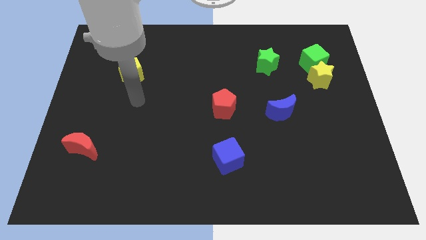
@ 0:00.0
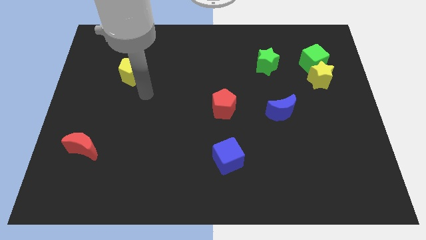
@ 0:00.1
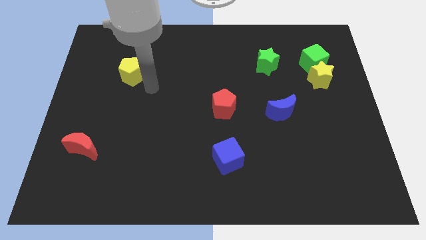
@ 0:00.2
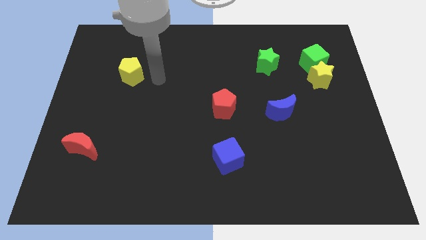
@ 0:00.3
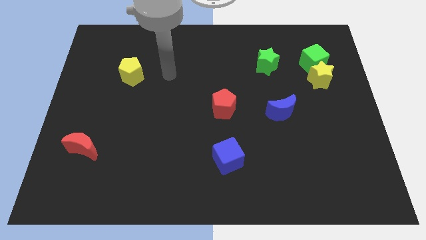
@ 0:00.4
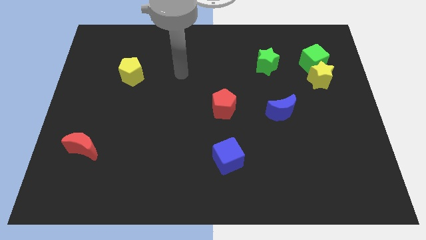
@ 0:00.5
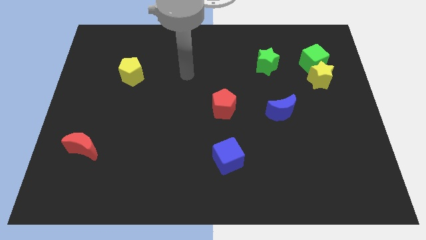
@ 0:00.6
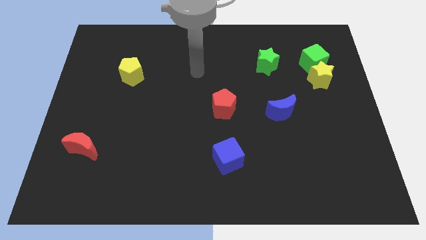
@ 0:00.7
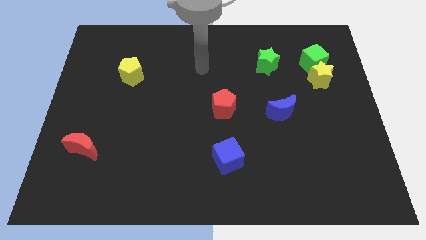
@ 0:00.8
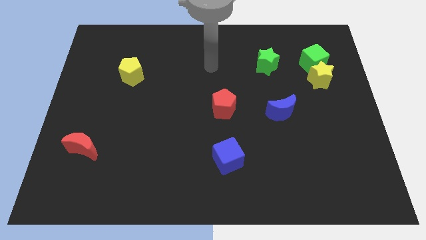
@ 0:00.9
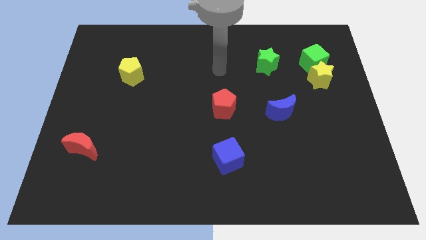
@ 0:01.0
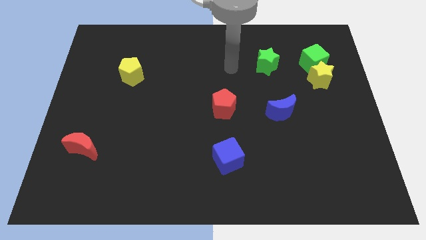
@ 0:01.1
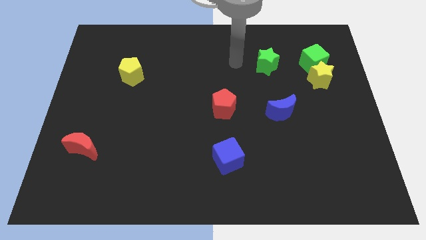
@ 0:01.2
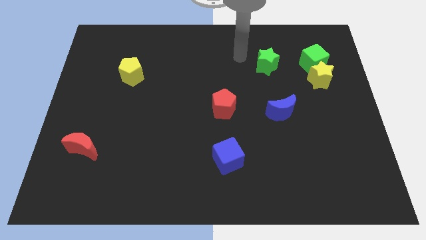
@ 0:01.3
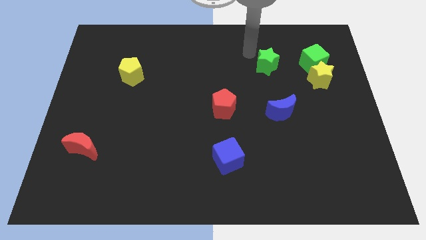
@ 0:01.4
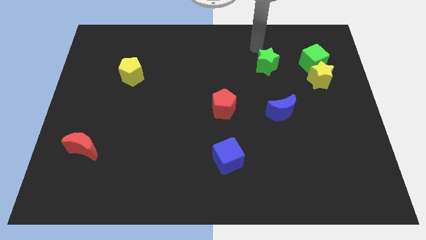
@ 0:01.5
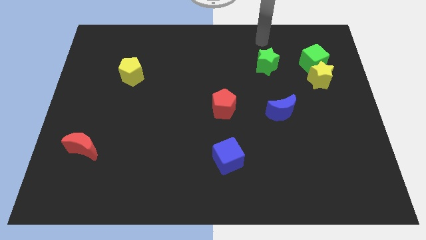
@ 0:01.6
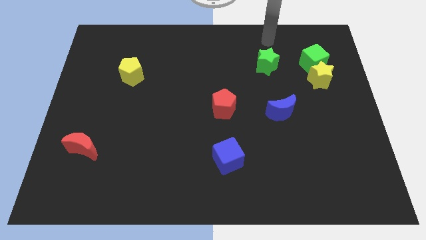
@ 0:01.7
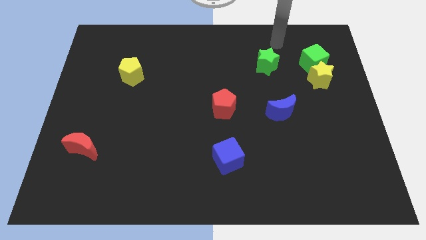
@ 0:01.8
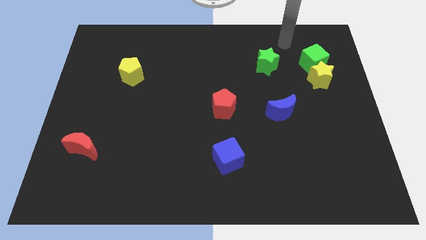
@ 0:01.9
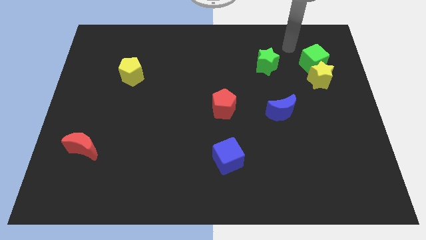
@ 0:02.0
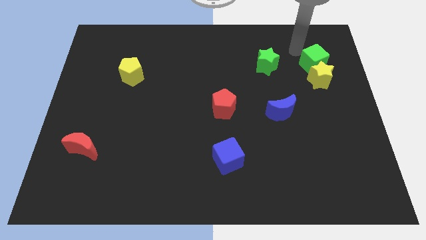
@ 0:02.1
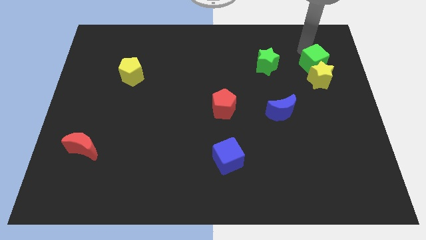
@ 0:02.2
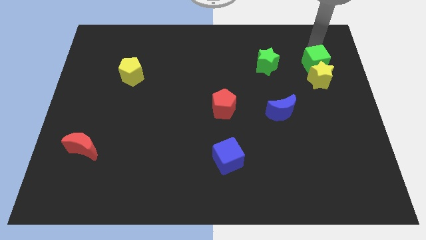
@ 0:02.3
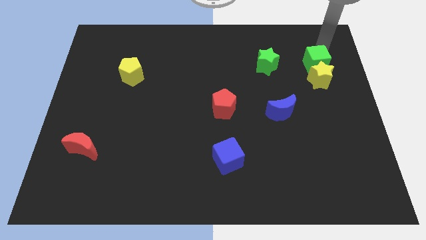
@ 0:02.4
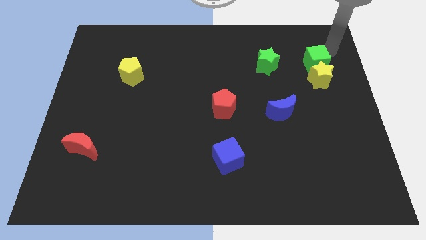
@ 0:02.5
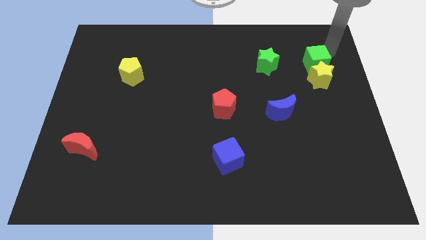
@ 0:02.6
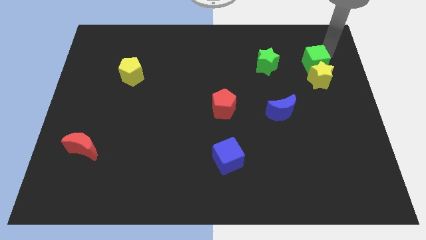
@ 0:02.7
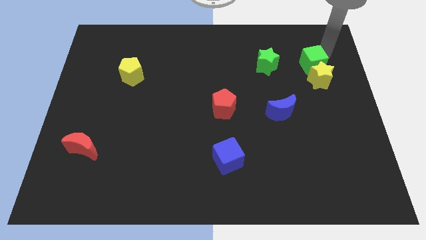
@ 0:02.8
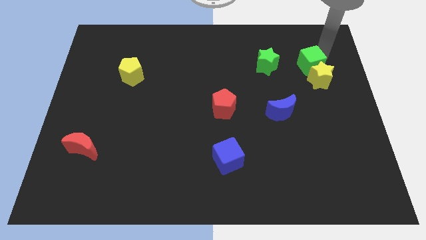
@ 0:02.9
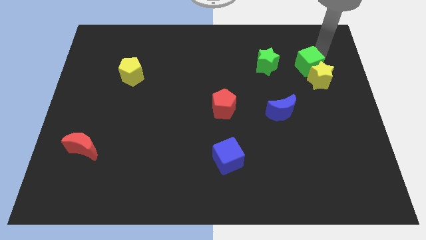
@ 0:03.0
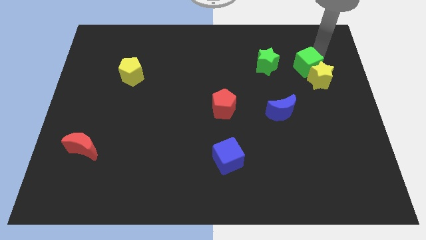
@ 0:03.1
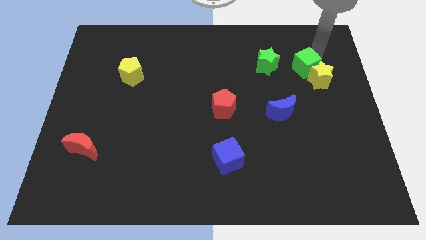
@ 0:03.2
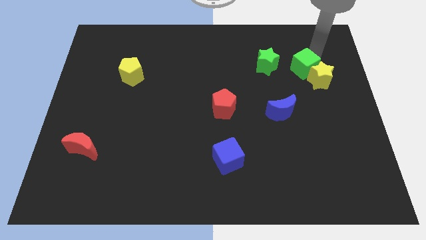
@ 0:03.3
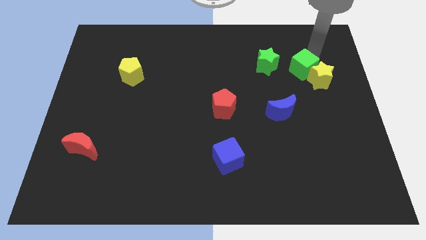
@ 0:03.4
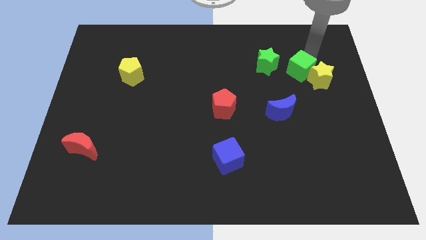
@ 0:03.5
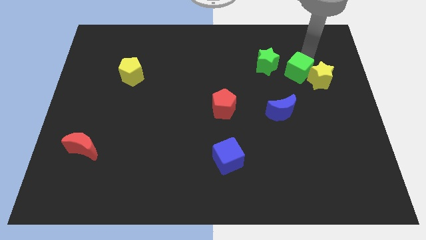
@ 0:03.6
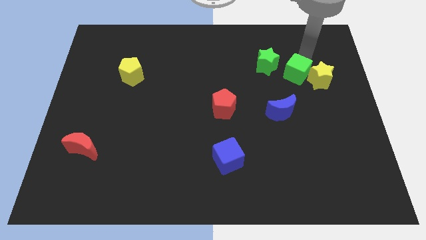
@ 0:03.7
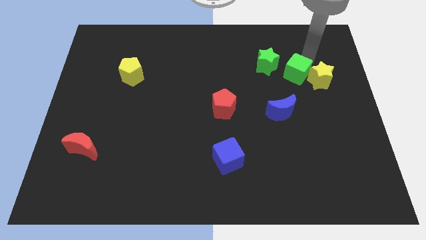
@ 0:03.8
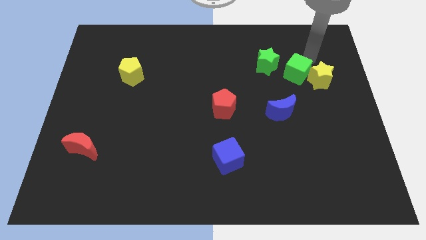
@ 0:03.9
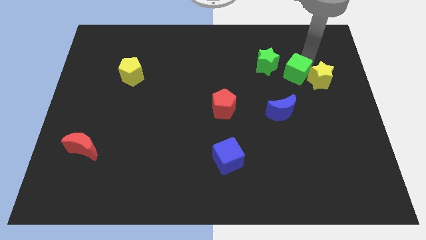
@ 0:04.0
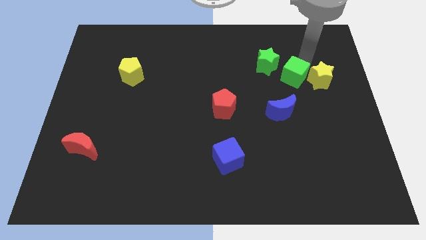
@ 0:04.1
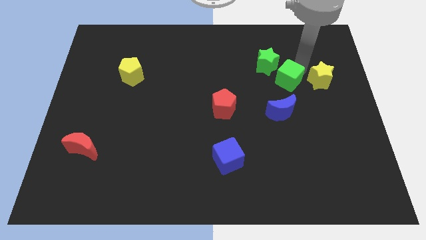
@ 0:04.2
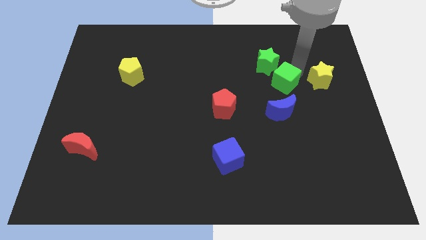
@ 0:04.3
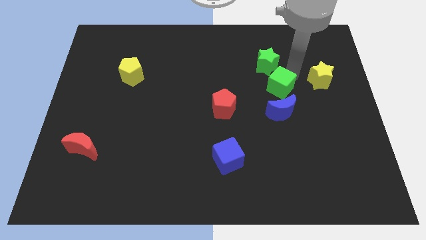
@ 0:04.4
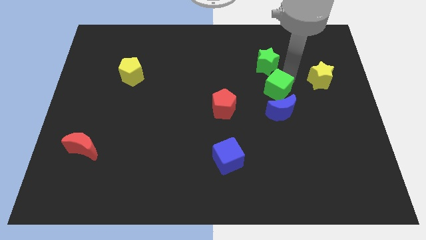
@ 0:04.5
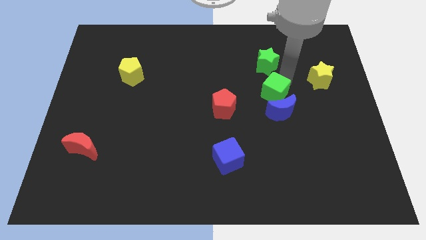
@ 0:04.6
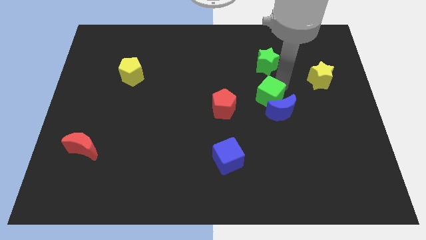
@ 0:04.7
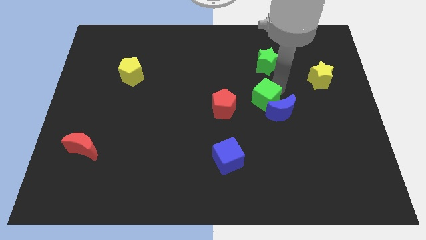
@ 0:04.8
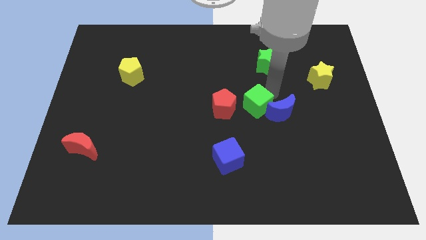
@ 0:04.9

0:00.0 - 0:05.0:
slide the green cube downwards and left

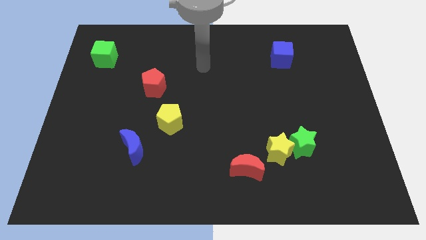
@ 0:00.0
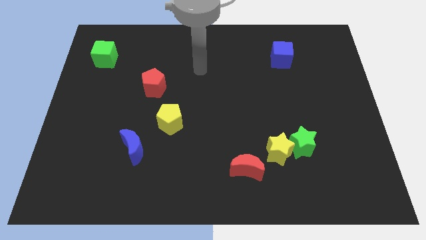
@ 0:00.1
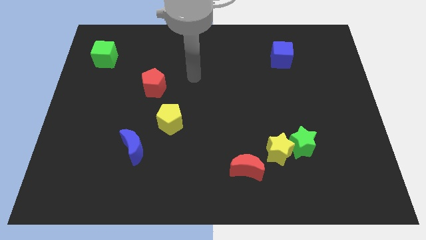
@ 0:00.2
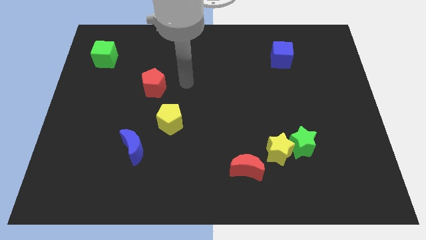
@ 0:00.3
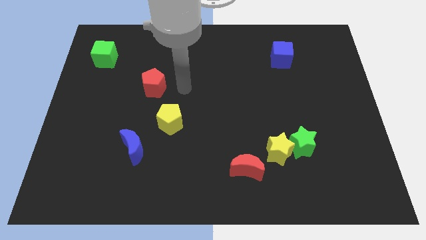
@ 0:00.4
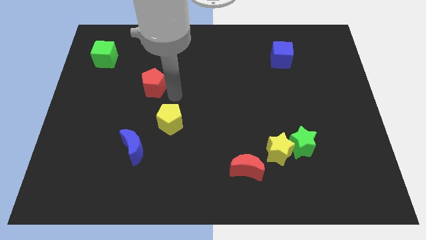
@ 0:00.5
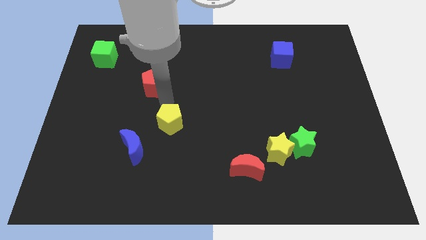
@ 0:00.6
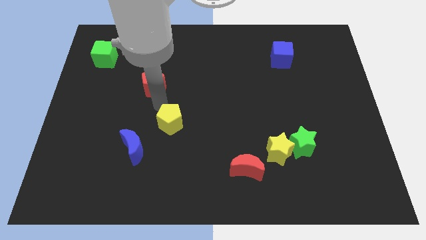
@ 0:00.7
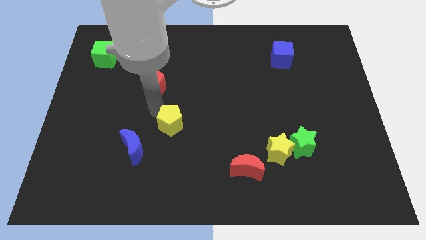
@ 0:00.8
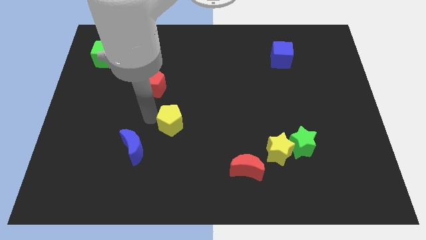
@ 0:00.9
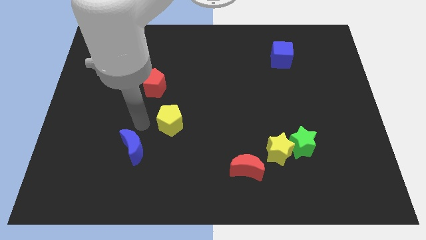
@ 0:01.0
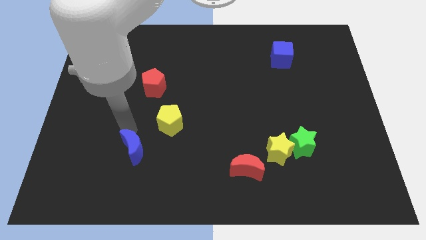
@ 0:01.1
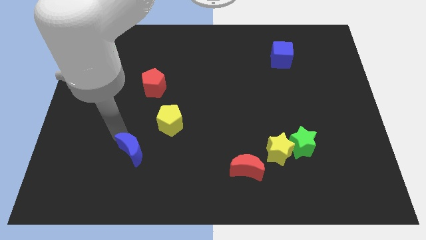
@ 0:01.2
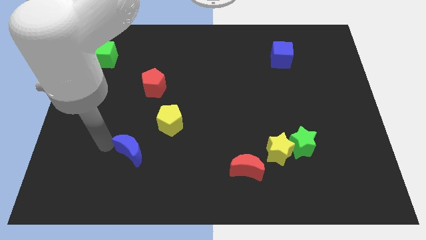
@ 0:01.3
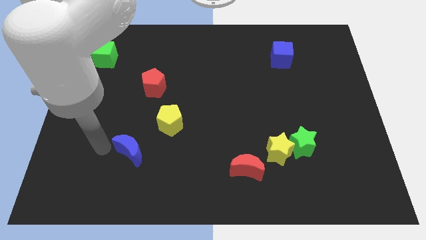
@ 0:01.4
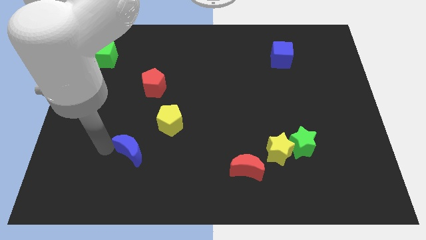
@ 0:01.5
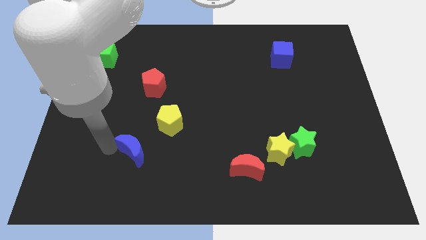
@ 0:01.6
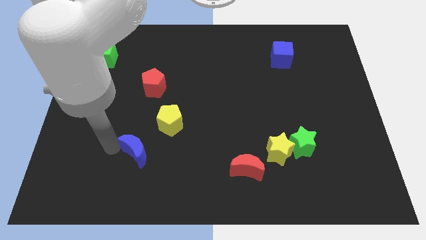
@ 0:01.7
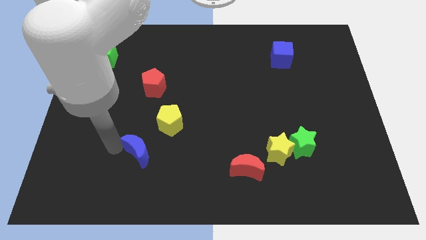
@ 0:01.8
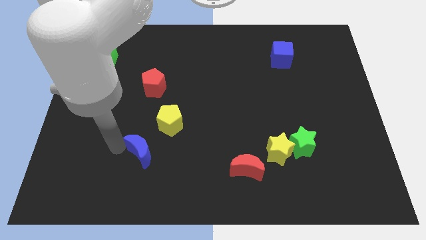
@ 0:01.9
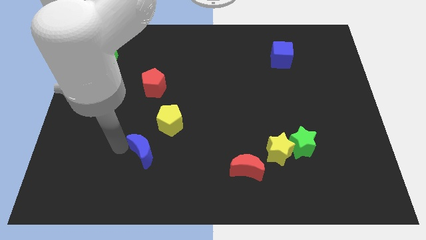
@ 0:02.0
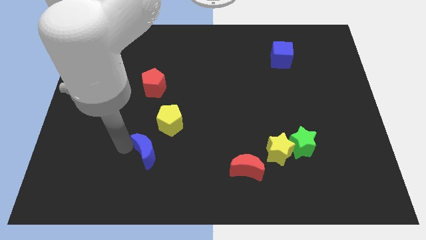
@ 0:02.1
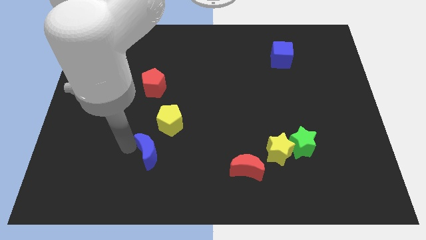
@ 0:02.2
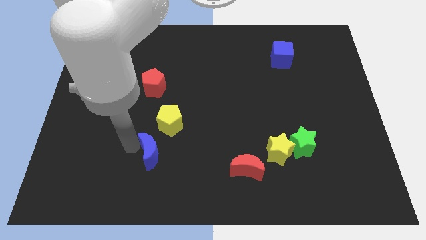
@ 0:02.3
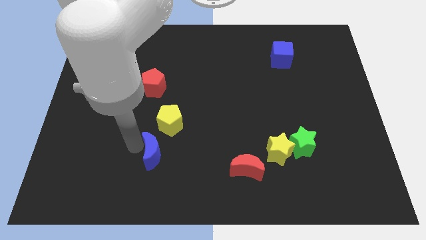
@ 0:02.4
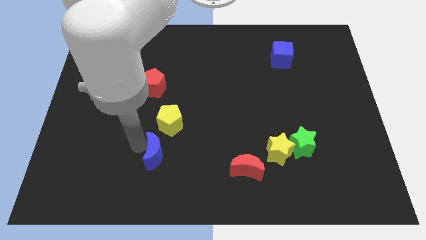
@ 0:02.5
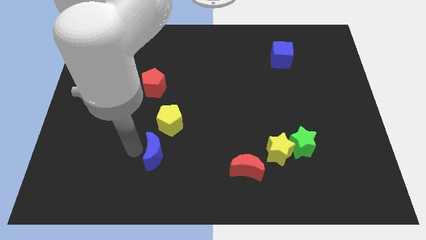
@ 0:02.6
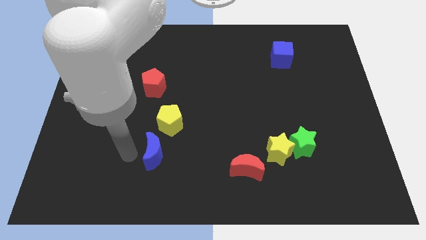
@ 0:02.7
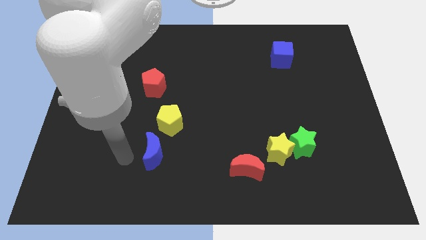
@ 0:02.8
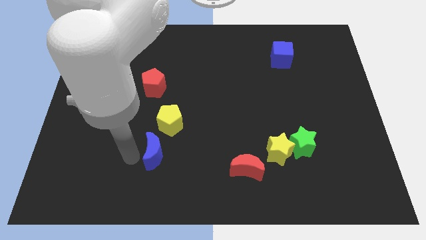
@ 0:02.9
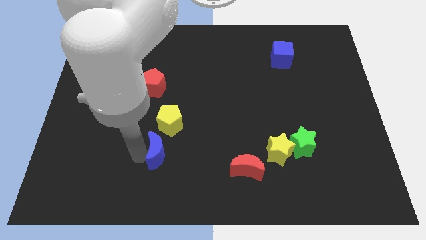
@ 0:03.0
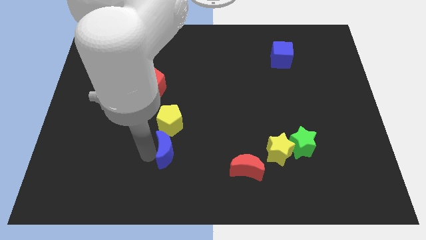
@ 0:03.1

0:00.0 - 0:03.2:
move the blue moon to the right somewhat
